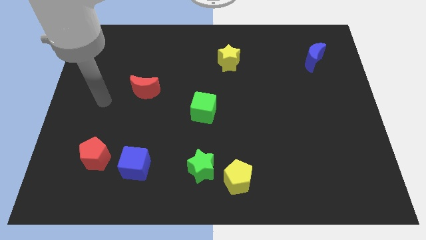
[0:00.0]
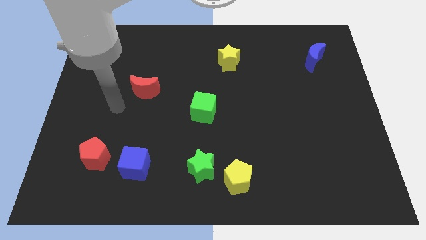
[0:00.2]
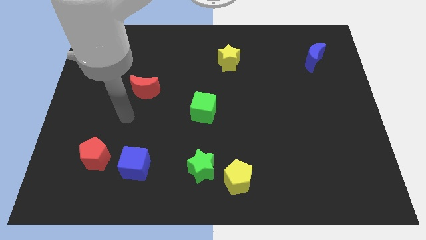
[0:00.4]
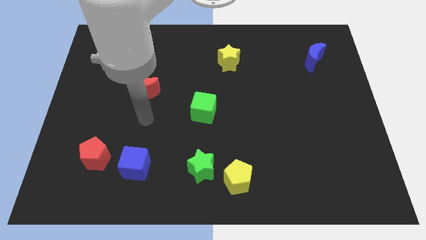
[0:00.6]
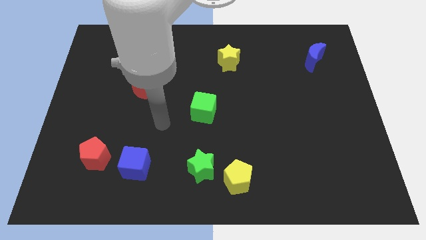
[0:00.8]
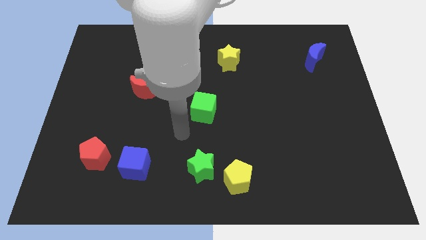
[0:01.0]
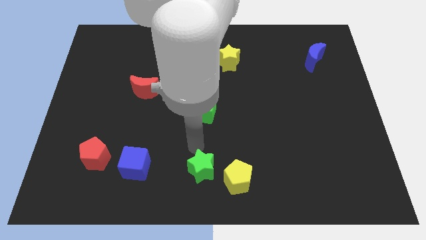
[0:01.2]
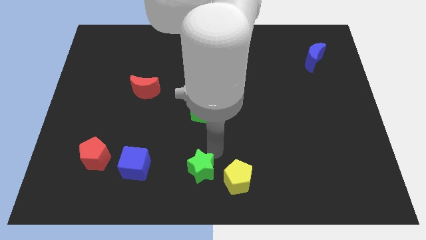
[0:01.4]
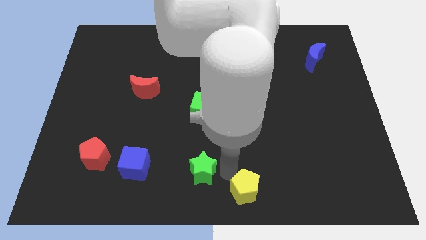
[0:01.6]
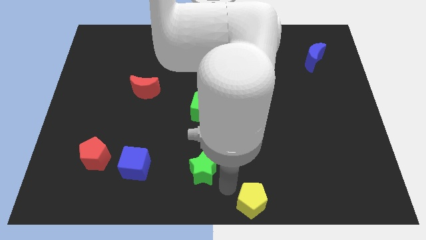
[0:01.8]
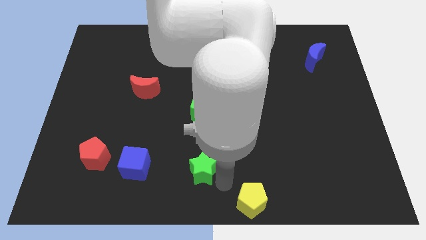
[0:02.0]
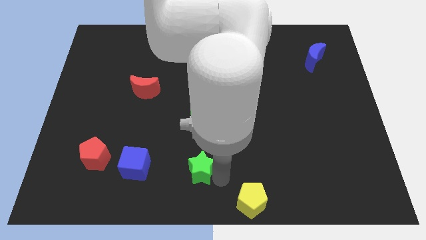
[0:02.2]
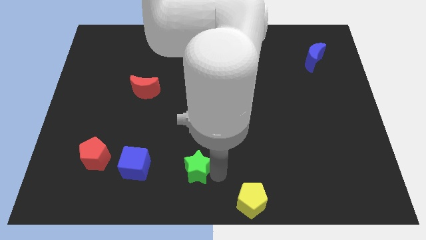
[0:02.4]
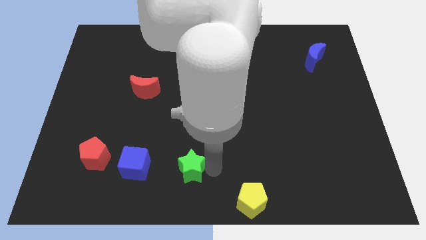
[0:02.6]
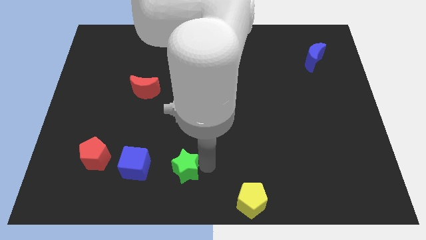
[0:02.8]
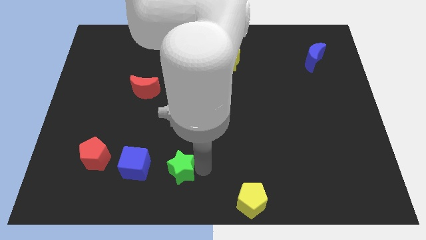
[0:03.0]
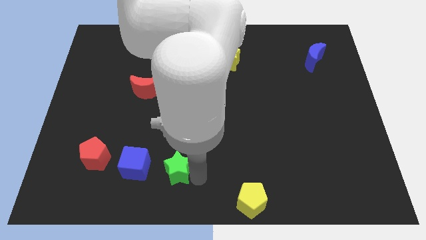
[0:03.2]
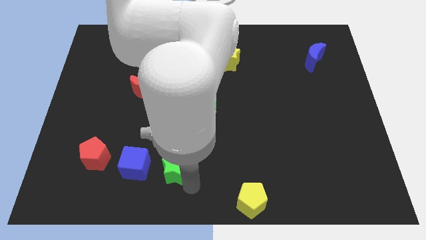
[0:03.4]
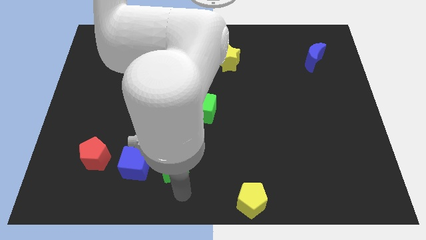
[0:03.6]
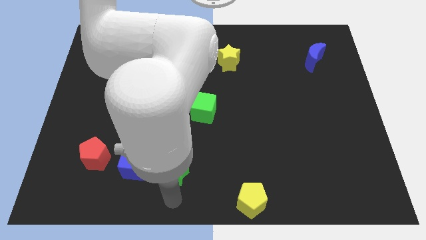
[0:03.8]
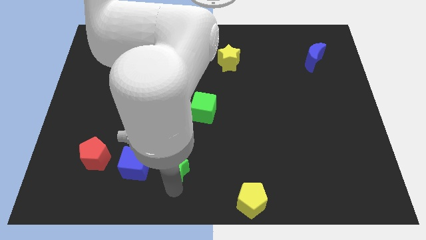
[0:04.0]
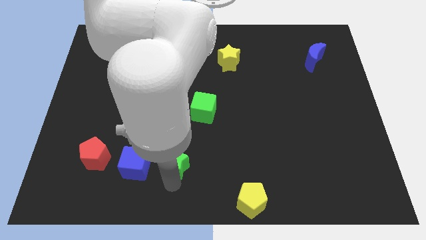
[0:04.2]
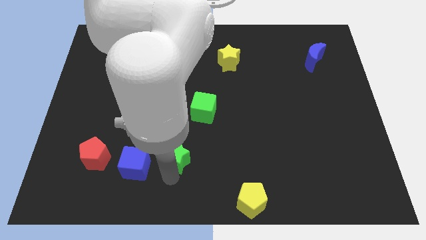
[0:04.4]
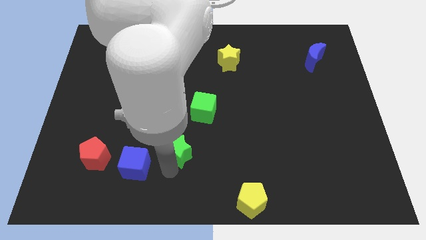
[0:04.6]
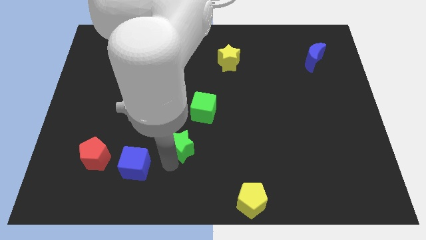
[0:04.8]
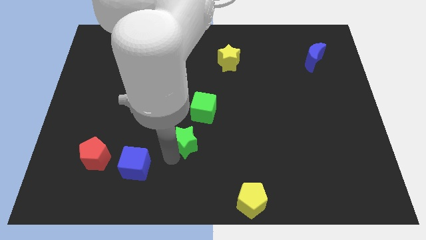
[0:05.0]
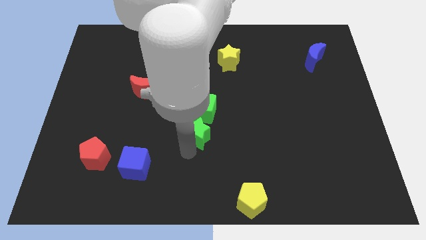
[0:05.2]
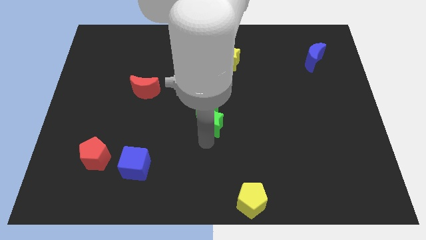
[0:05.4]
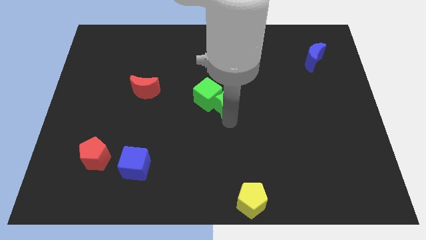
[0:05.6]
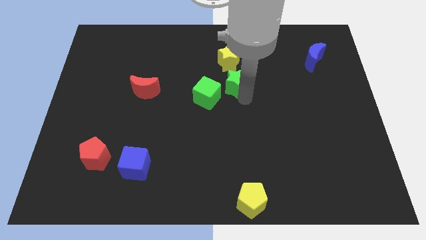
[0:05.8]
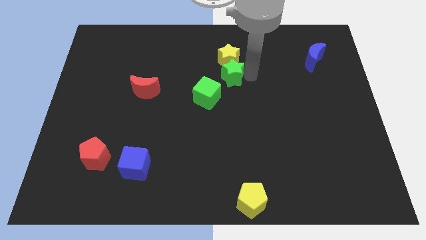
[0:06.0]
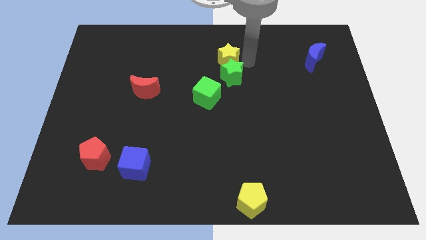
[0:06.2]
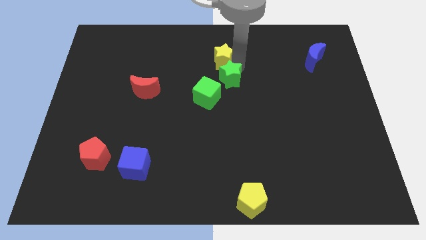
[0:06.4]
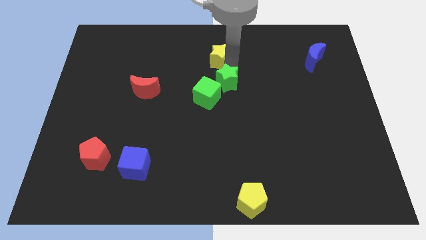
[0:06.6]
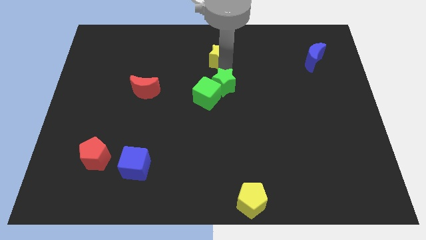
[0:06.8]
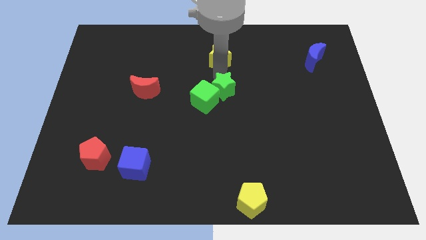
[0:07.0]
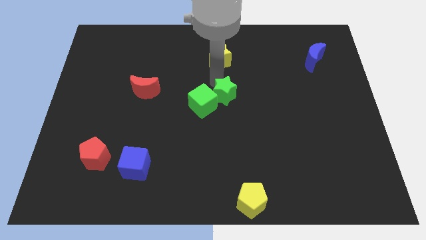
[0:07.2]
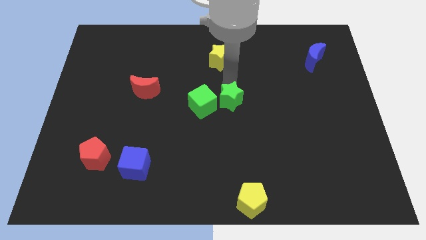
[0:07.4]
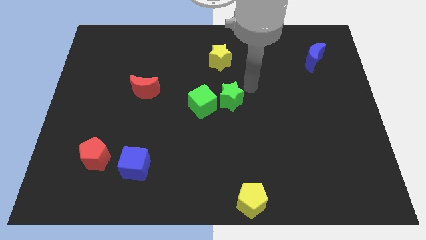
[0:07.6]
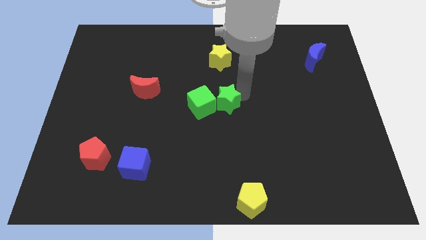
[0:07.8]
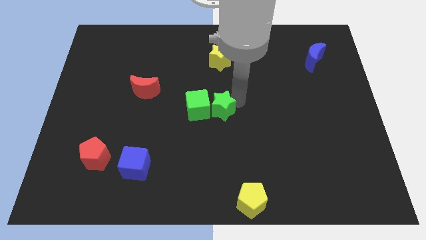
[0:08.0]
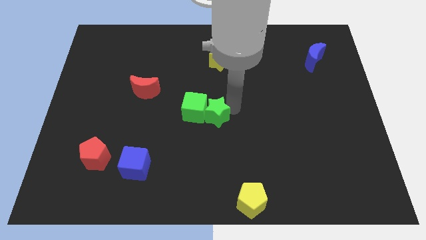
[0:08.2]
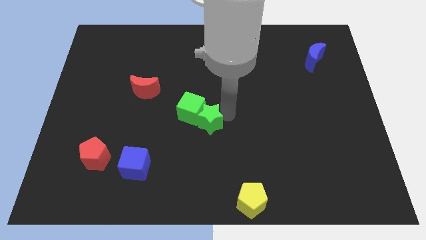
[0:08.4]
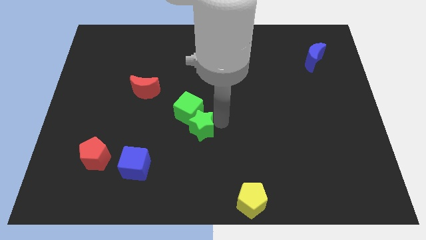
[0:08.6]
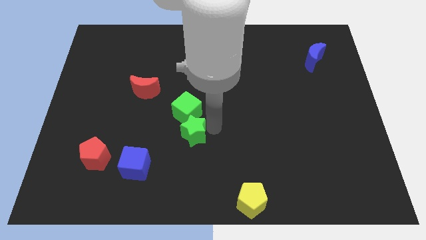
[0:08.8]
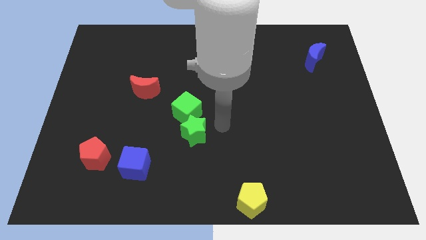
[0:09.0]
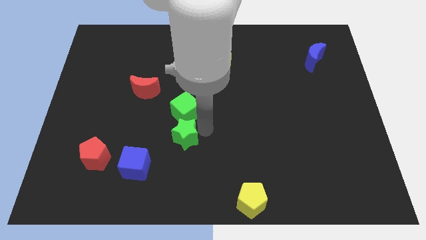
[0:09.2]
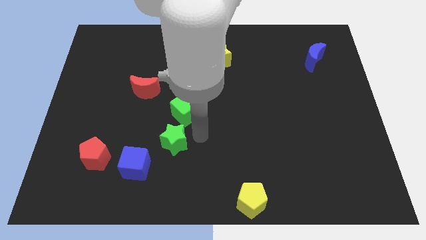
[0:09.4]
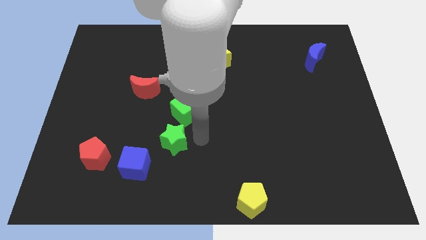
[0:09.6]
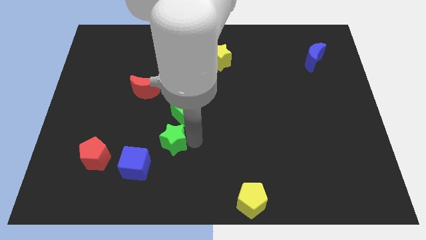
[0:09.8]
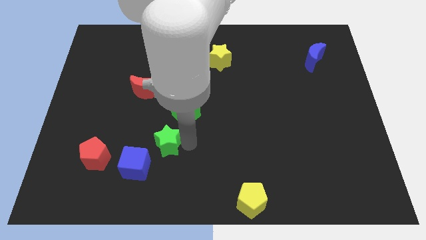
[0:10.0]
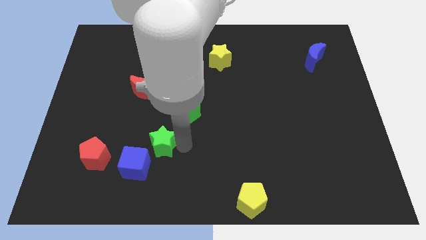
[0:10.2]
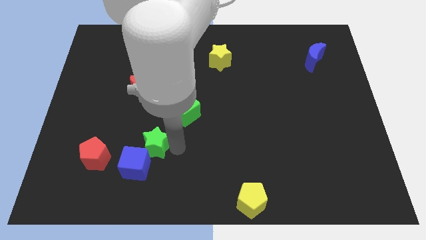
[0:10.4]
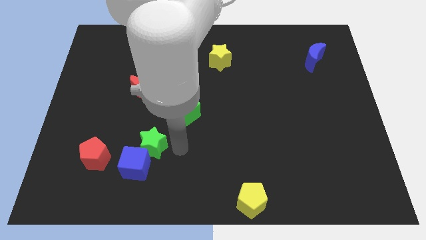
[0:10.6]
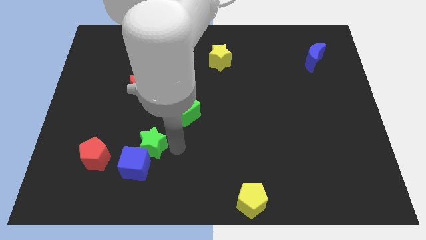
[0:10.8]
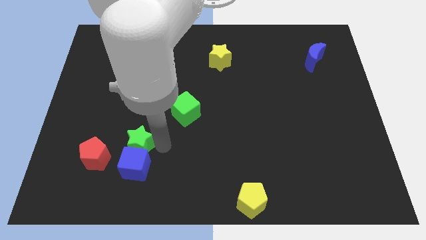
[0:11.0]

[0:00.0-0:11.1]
move the green star diagonally up and to the left of the blue cube

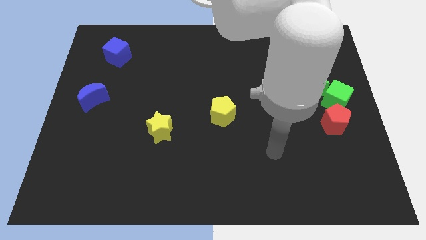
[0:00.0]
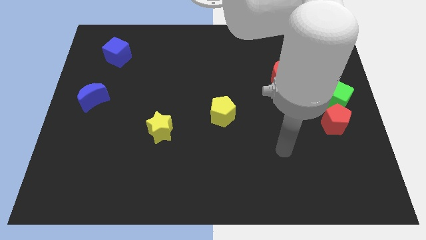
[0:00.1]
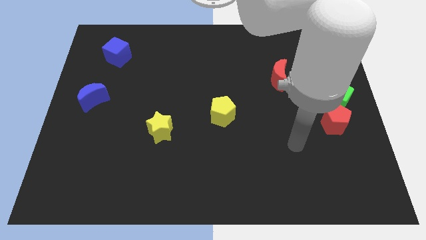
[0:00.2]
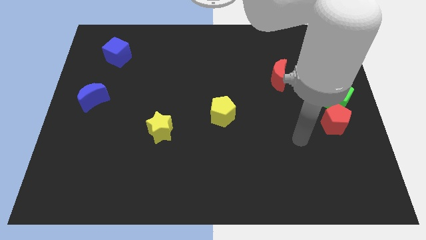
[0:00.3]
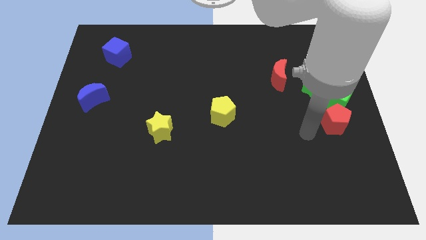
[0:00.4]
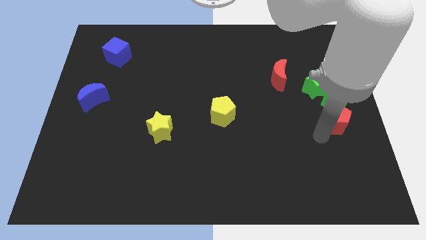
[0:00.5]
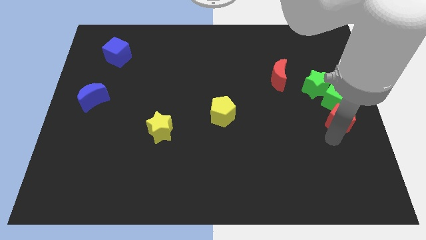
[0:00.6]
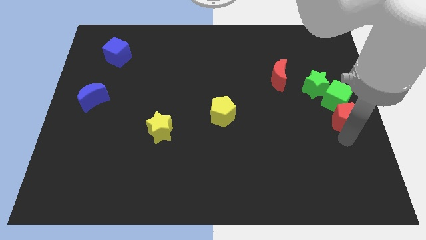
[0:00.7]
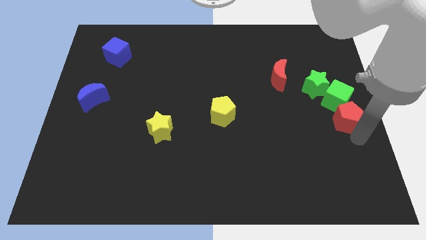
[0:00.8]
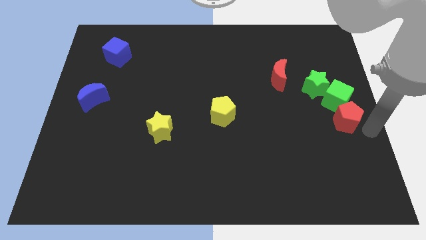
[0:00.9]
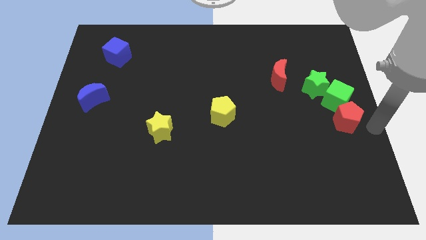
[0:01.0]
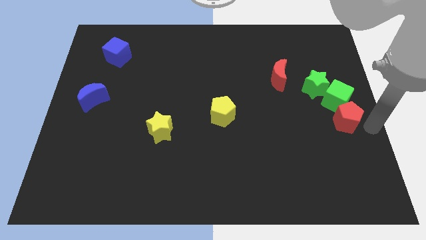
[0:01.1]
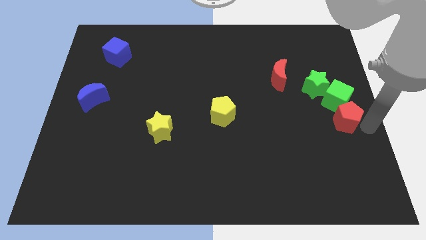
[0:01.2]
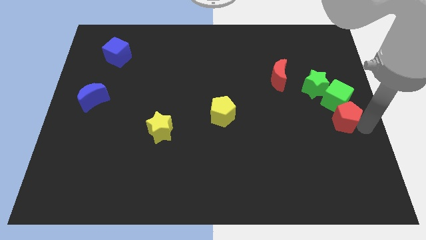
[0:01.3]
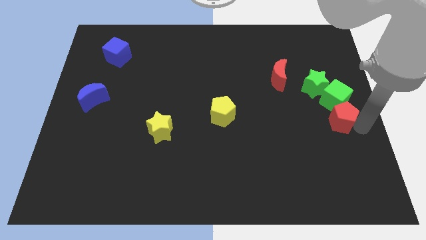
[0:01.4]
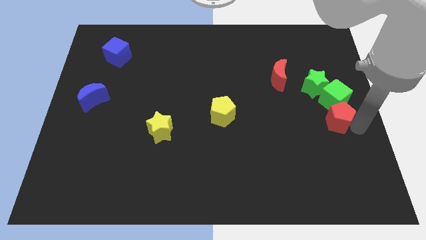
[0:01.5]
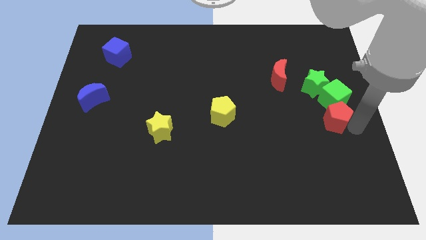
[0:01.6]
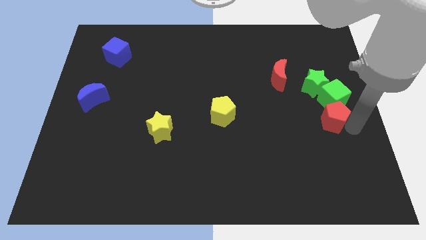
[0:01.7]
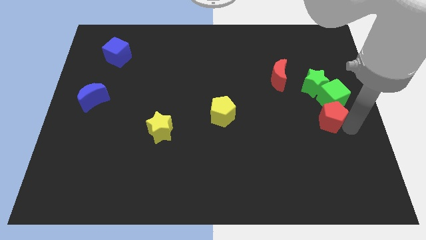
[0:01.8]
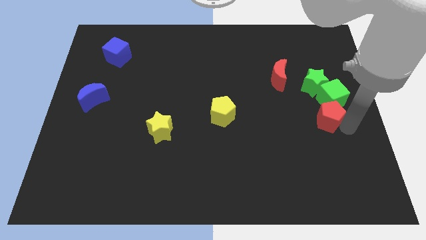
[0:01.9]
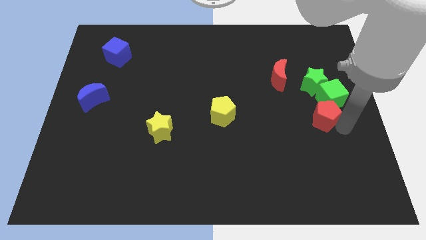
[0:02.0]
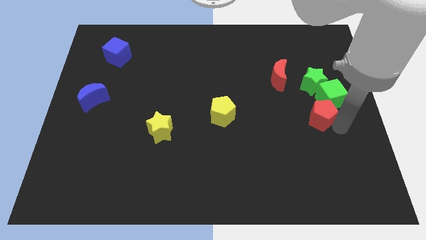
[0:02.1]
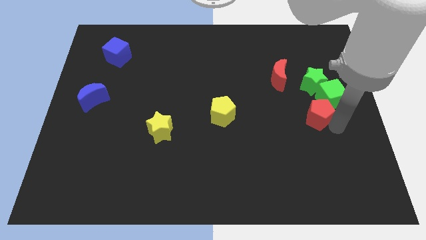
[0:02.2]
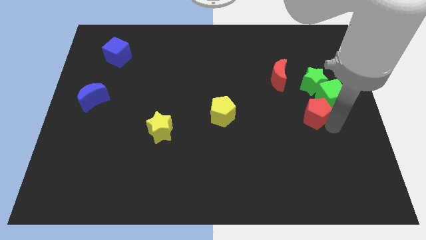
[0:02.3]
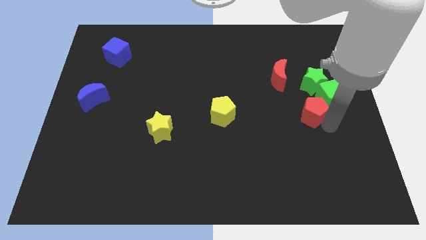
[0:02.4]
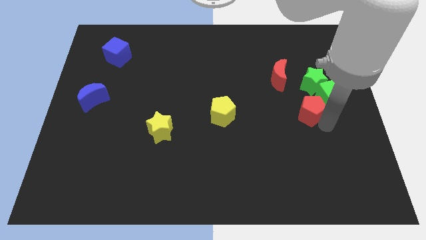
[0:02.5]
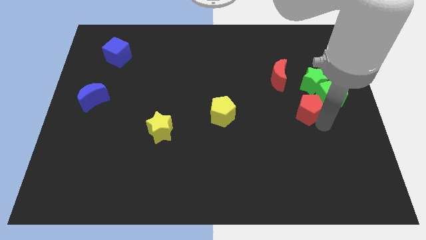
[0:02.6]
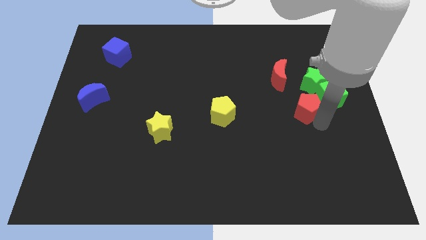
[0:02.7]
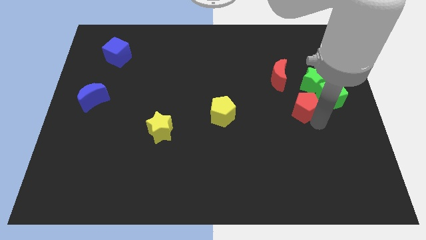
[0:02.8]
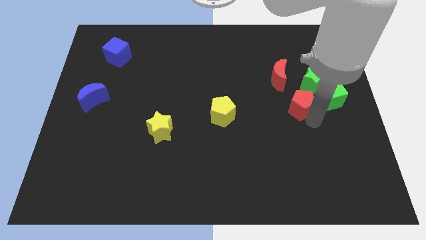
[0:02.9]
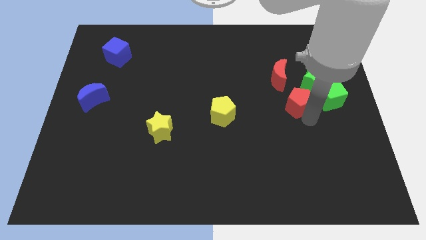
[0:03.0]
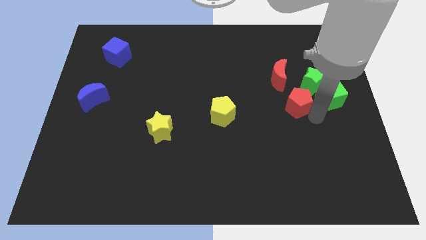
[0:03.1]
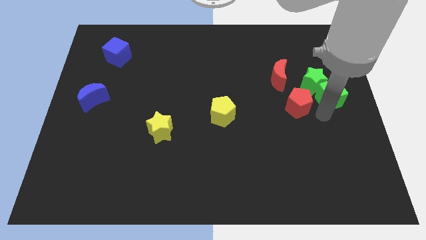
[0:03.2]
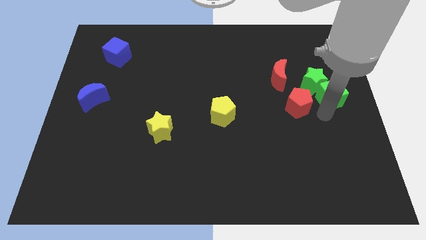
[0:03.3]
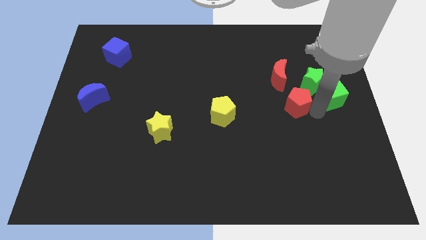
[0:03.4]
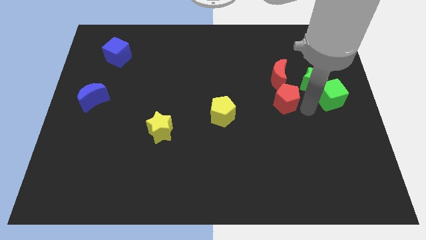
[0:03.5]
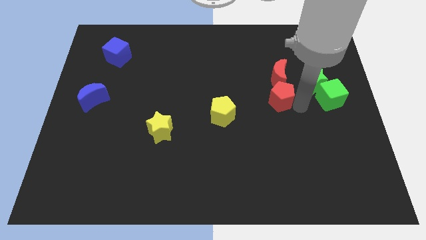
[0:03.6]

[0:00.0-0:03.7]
move the red pentagon to the bottom left of the red moon
